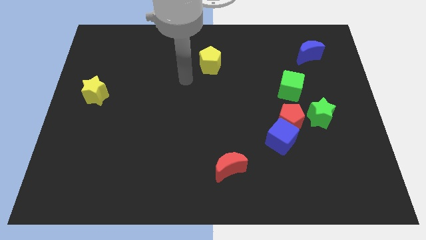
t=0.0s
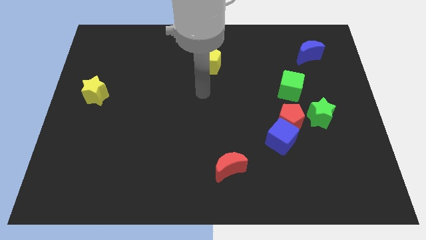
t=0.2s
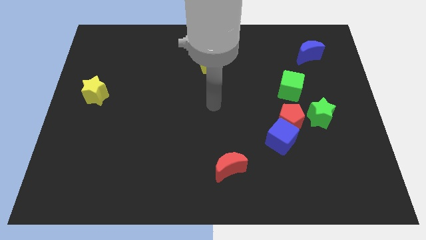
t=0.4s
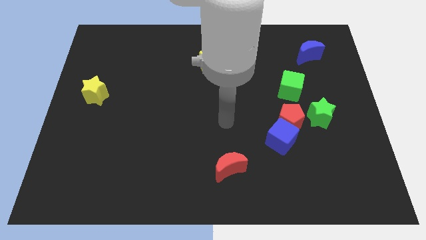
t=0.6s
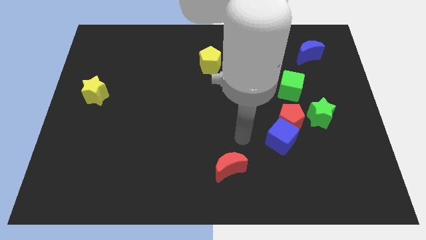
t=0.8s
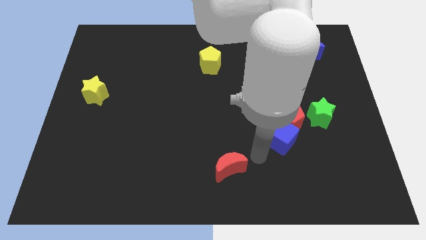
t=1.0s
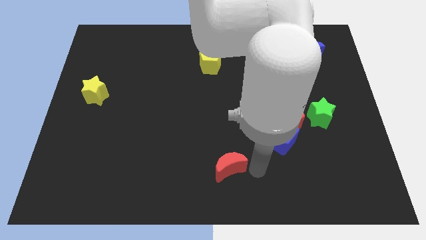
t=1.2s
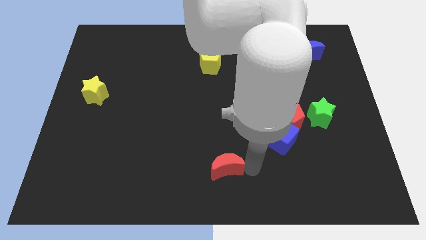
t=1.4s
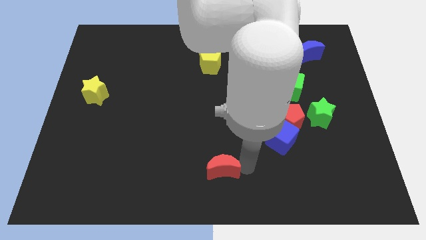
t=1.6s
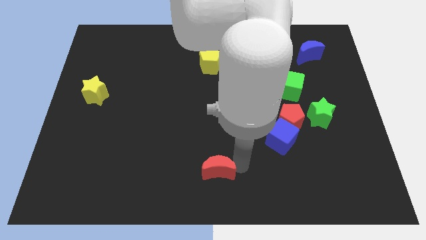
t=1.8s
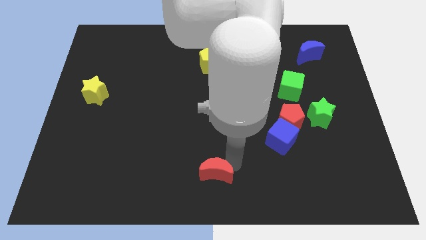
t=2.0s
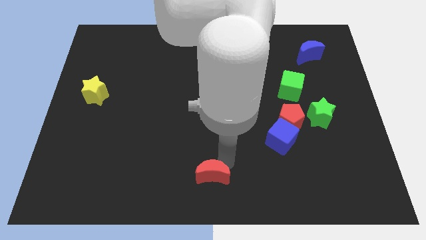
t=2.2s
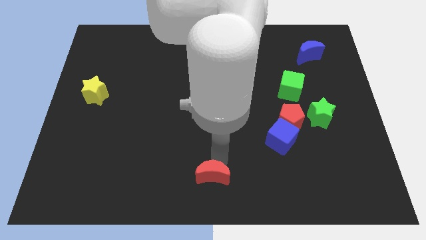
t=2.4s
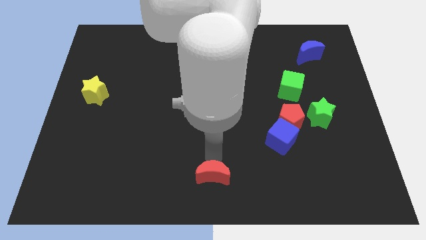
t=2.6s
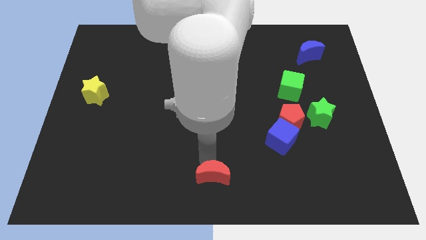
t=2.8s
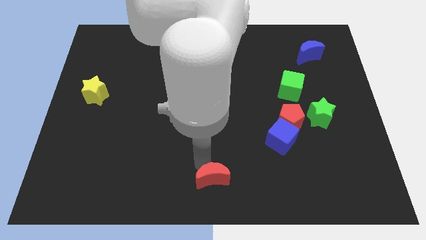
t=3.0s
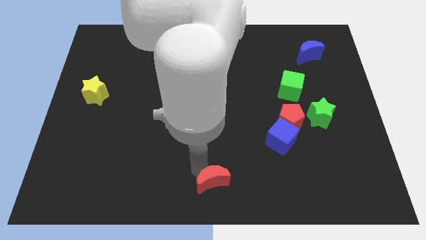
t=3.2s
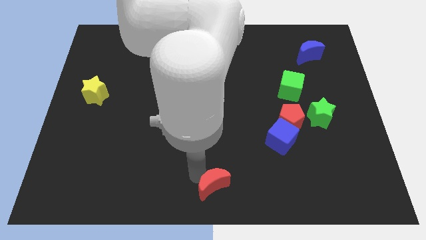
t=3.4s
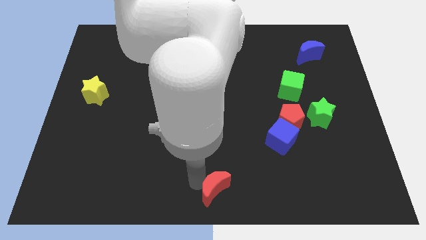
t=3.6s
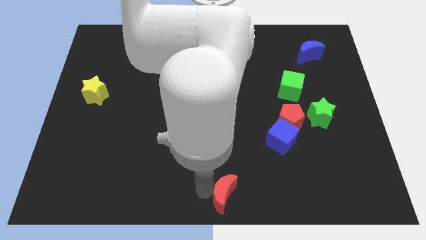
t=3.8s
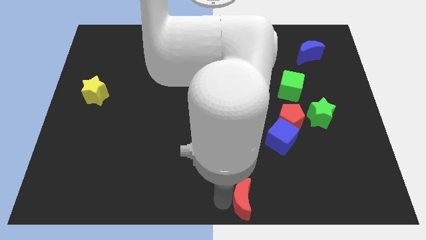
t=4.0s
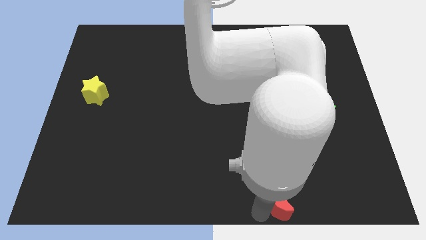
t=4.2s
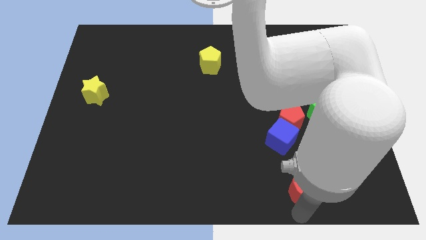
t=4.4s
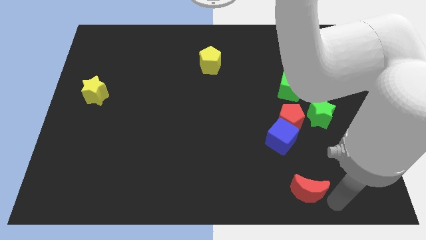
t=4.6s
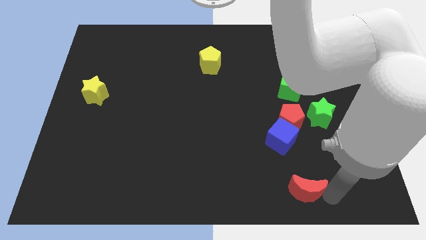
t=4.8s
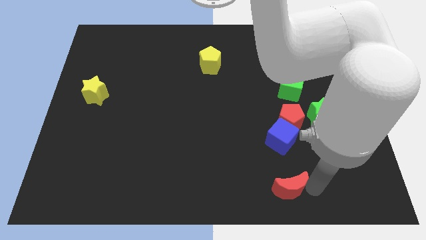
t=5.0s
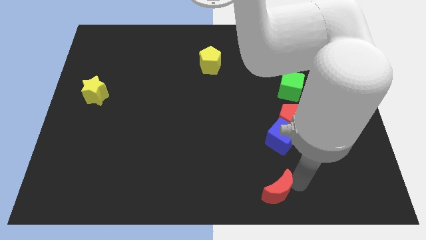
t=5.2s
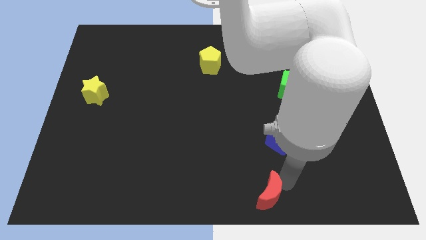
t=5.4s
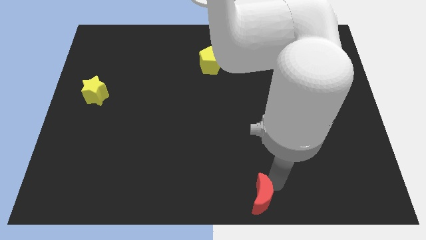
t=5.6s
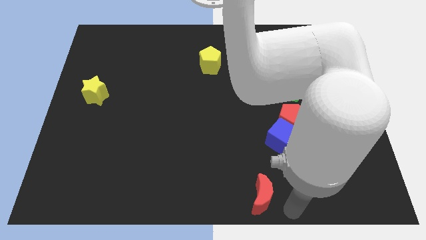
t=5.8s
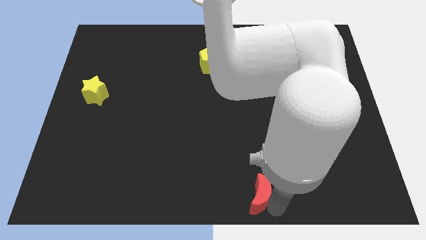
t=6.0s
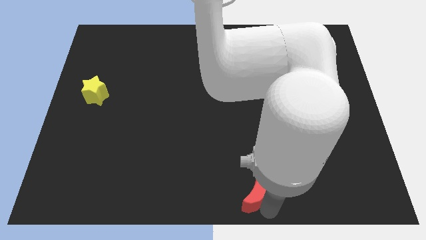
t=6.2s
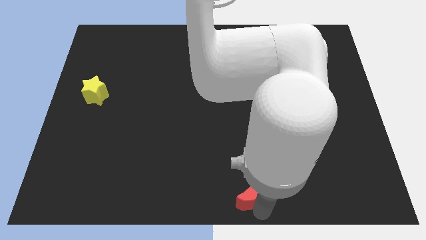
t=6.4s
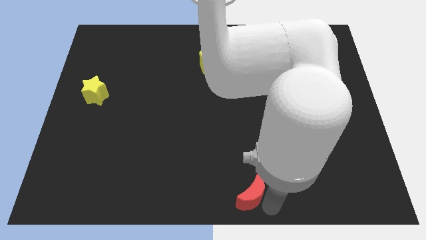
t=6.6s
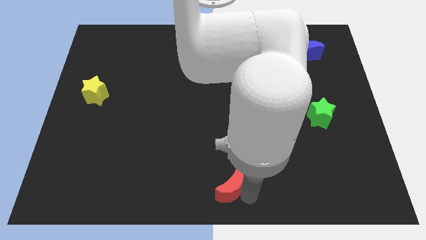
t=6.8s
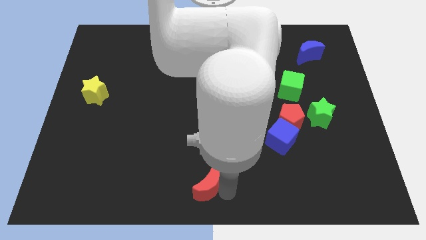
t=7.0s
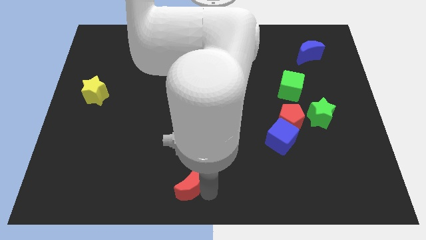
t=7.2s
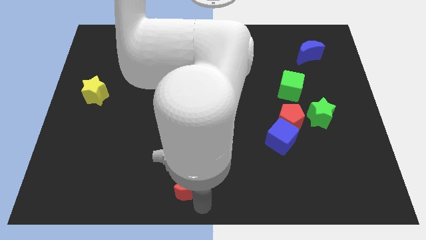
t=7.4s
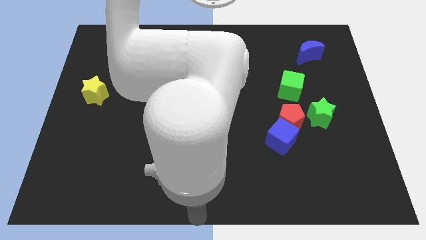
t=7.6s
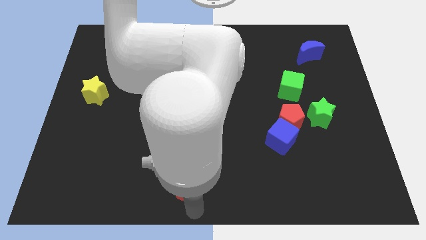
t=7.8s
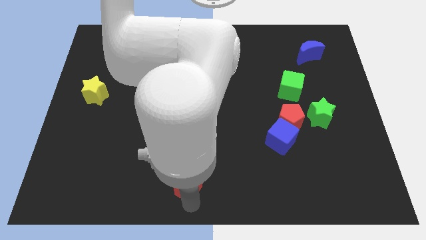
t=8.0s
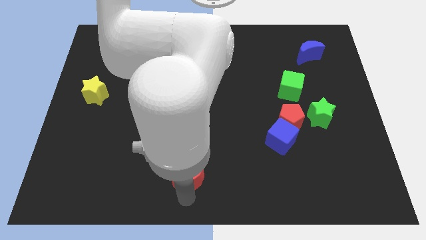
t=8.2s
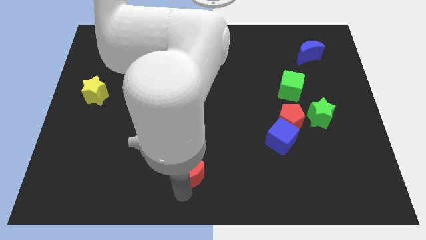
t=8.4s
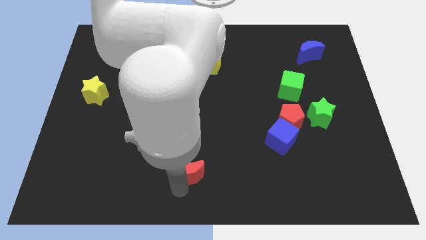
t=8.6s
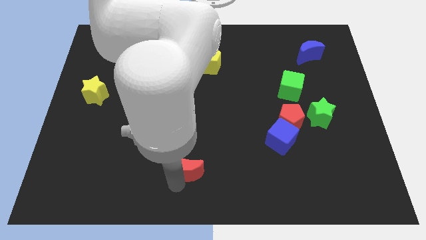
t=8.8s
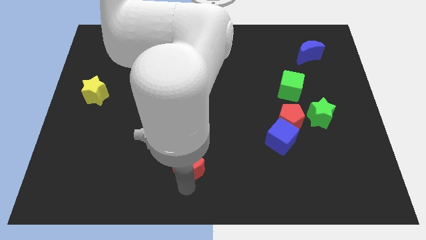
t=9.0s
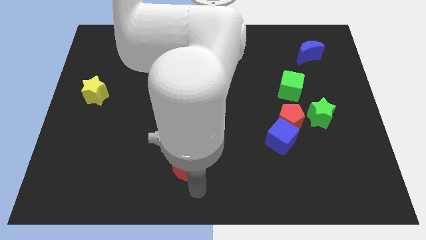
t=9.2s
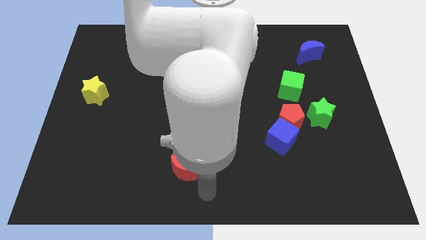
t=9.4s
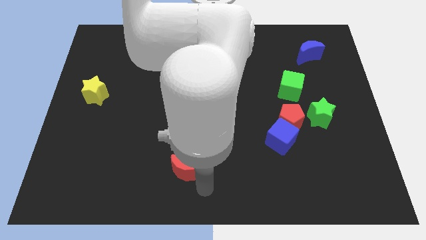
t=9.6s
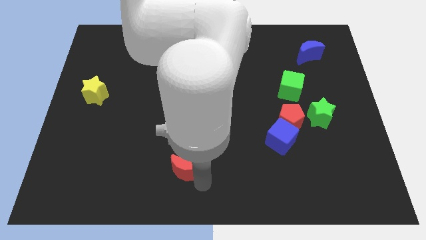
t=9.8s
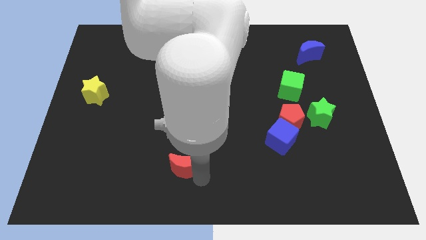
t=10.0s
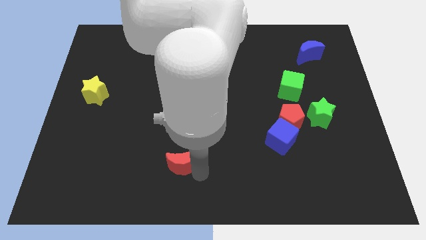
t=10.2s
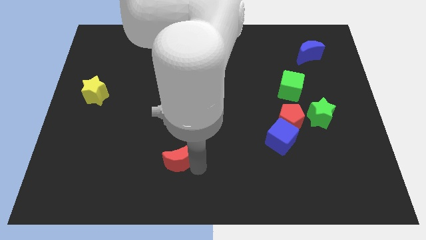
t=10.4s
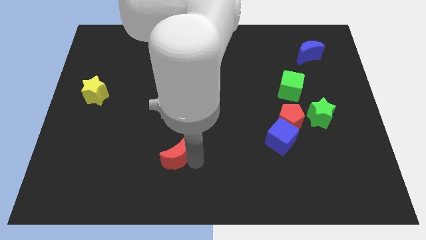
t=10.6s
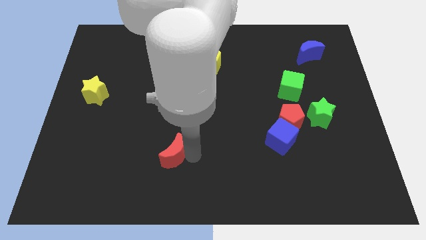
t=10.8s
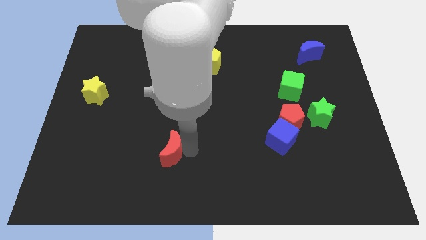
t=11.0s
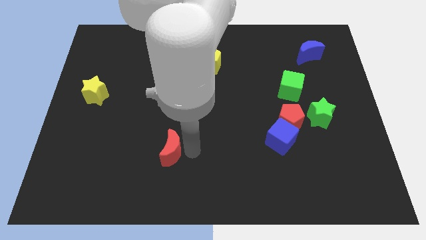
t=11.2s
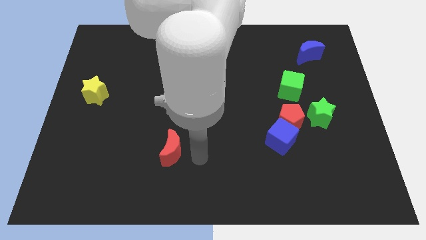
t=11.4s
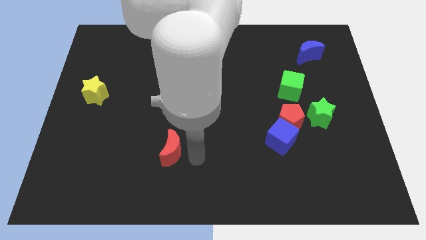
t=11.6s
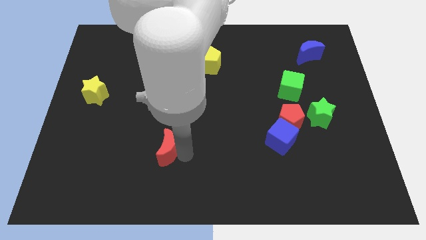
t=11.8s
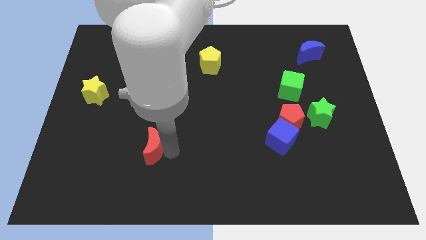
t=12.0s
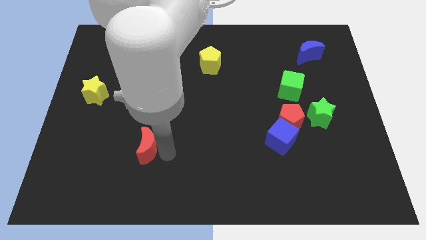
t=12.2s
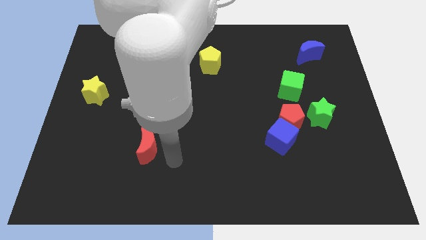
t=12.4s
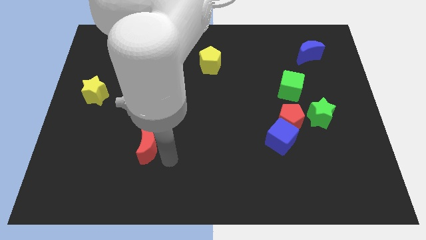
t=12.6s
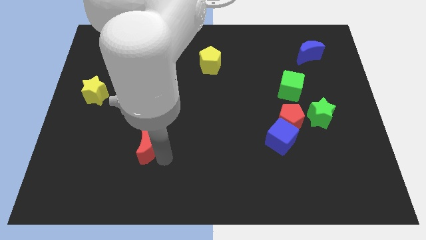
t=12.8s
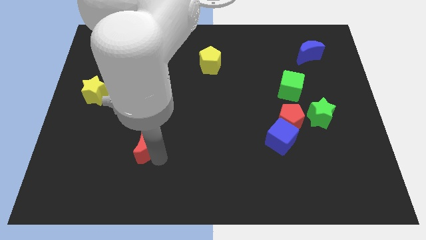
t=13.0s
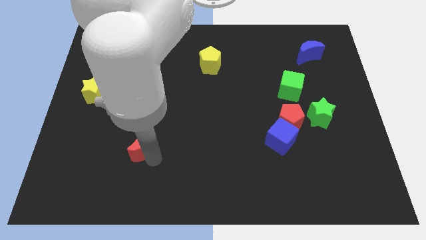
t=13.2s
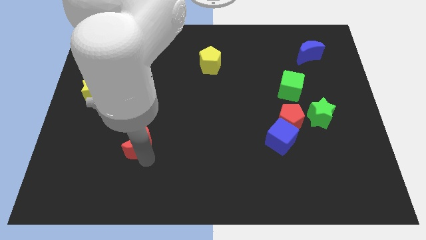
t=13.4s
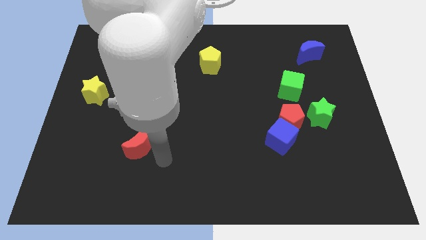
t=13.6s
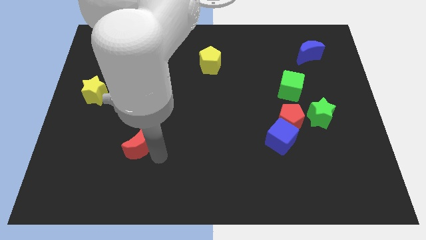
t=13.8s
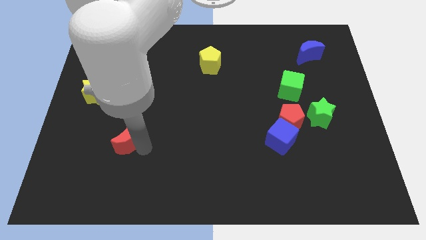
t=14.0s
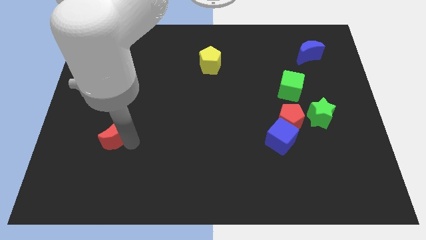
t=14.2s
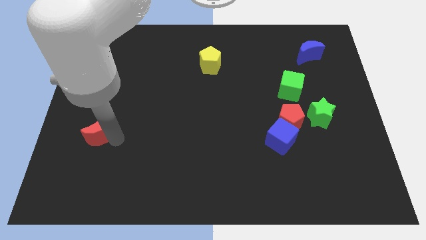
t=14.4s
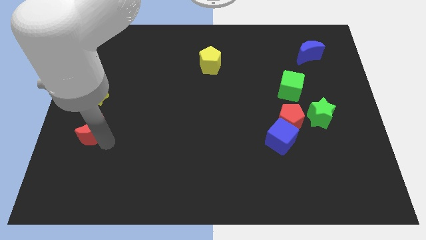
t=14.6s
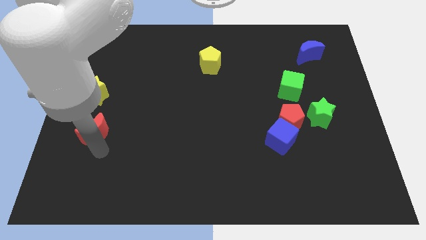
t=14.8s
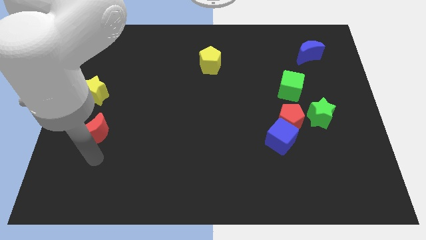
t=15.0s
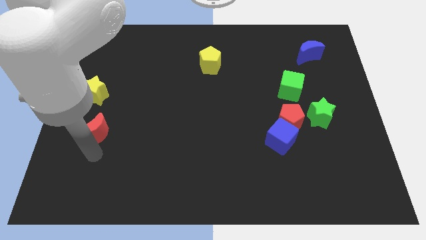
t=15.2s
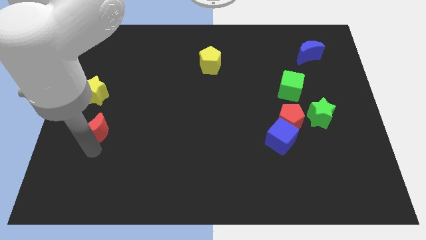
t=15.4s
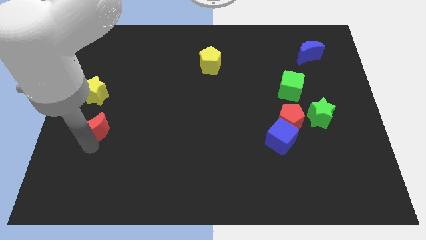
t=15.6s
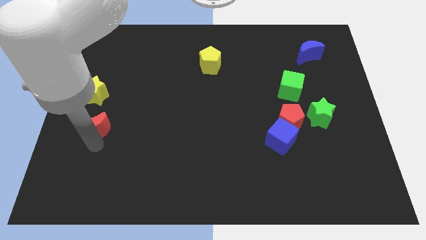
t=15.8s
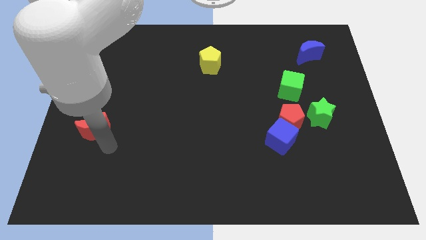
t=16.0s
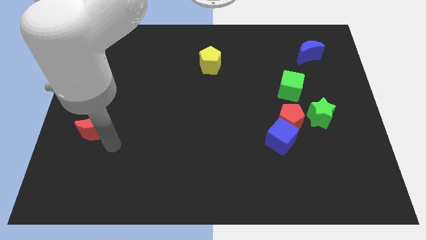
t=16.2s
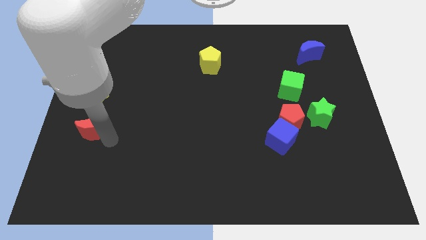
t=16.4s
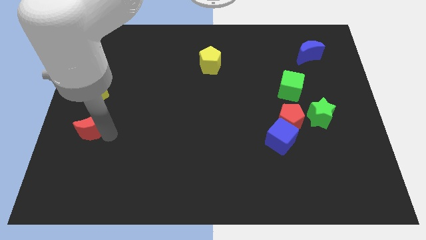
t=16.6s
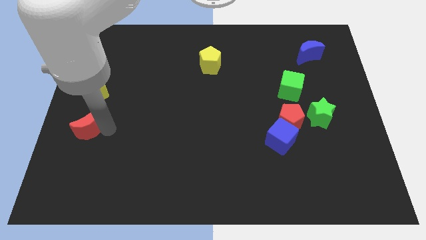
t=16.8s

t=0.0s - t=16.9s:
push the red moon to the left side of the board
